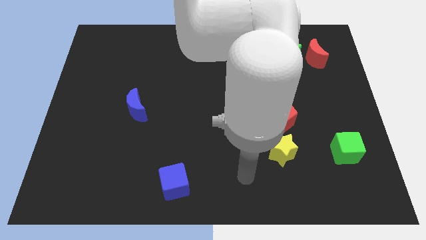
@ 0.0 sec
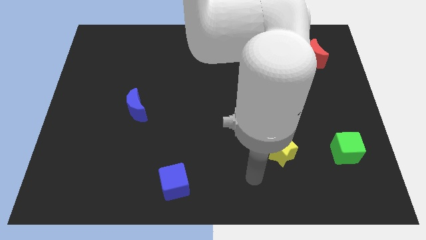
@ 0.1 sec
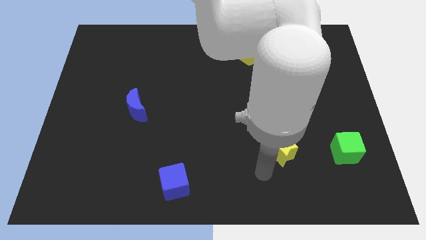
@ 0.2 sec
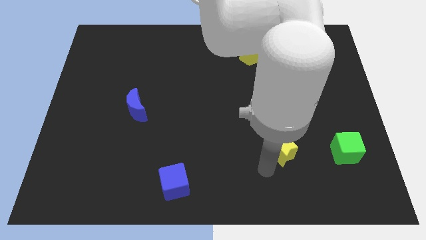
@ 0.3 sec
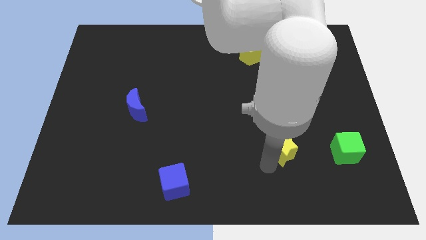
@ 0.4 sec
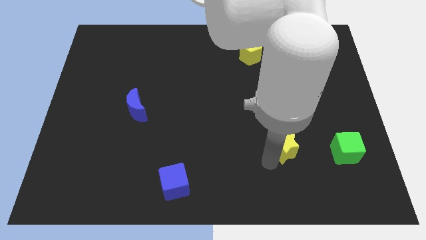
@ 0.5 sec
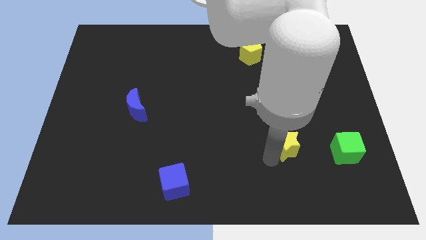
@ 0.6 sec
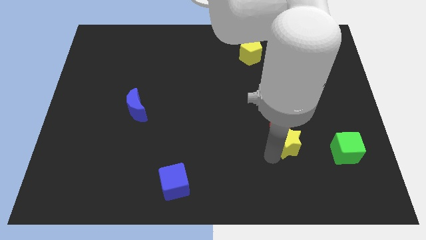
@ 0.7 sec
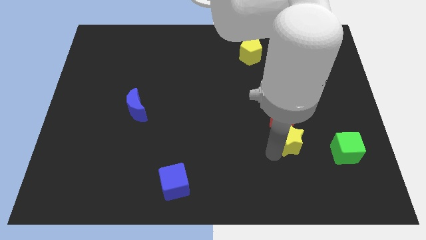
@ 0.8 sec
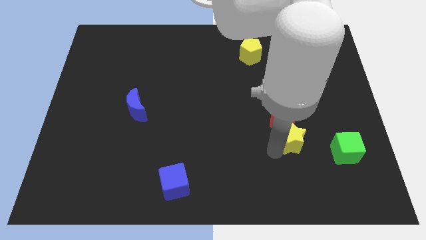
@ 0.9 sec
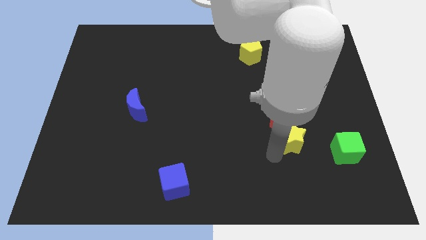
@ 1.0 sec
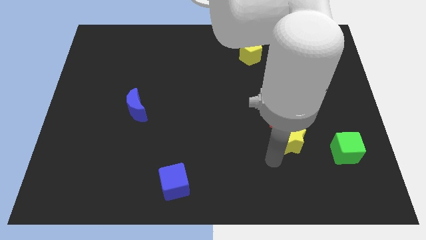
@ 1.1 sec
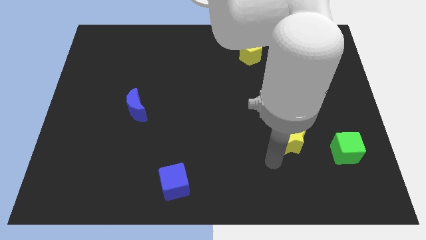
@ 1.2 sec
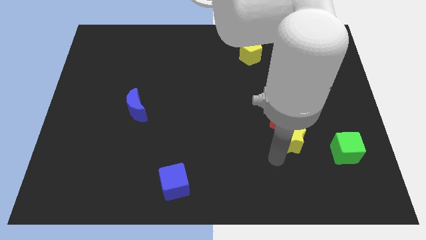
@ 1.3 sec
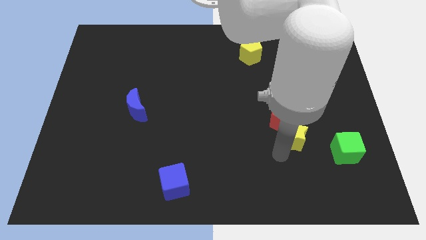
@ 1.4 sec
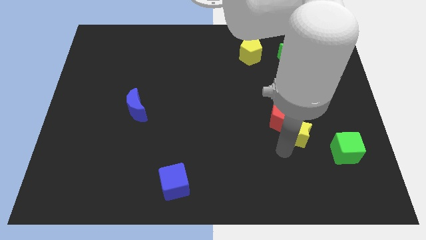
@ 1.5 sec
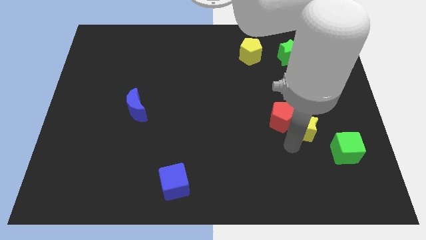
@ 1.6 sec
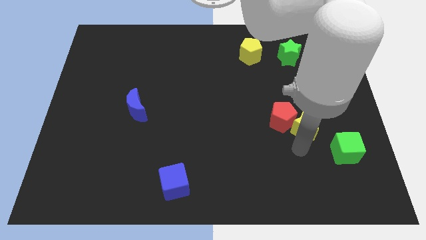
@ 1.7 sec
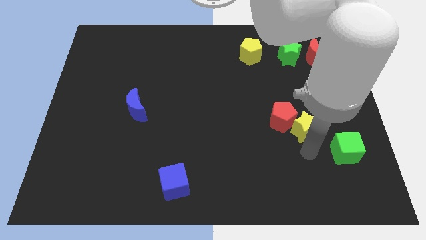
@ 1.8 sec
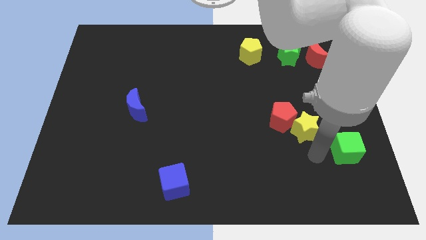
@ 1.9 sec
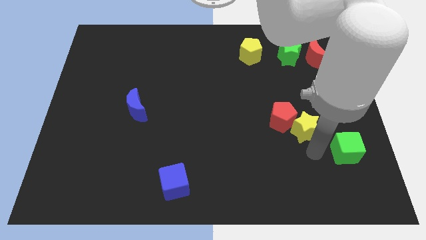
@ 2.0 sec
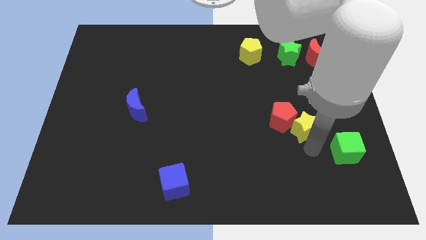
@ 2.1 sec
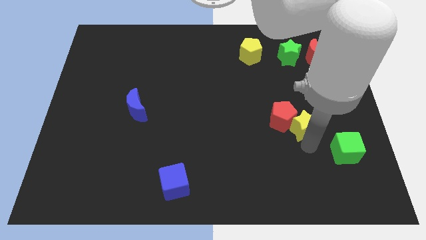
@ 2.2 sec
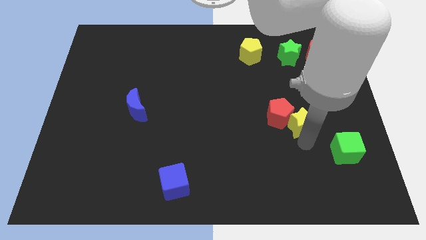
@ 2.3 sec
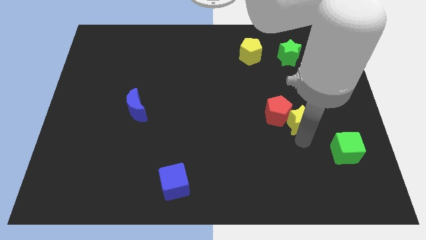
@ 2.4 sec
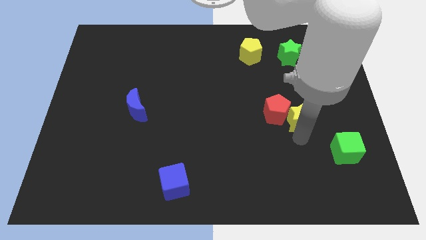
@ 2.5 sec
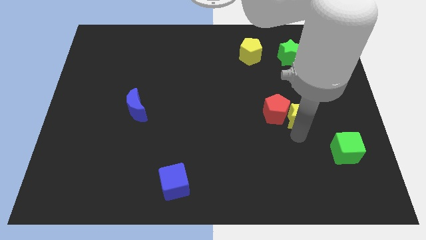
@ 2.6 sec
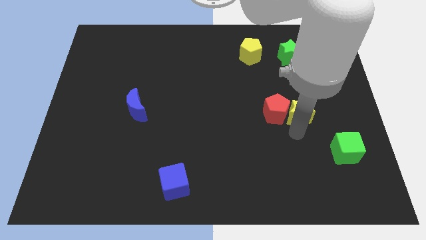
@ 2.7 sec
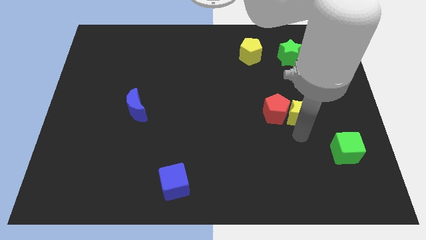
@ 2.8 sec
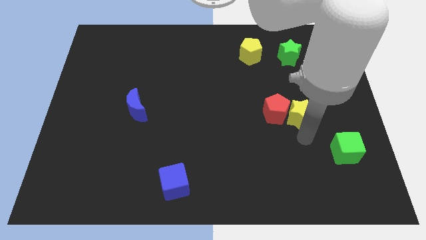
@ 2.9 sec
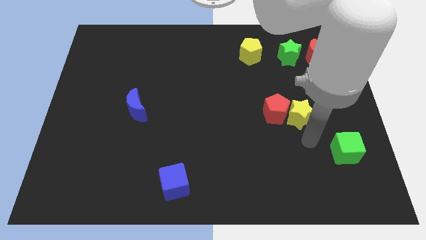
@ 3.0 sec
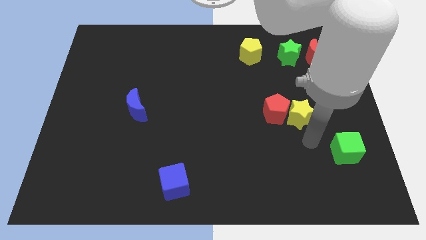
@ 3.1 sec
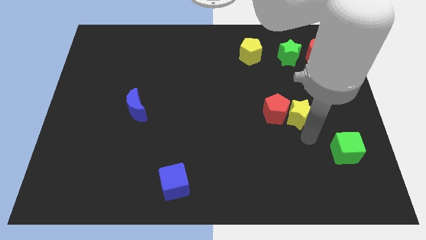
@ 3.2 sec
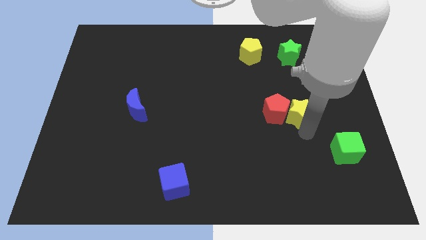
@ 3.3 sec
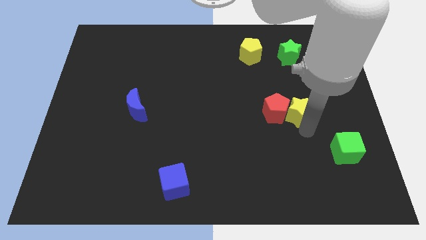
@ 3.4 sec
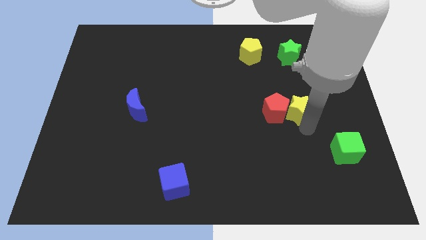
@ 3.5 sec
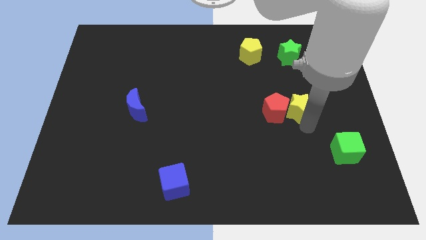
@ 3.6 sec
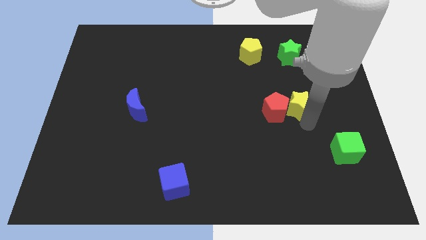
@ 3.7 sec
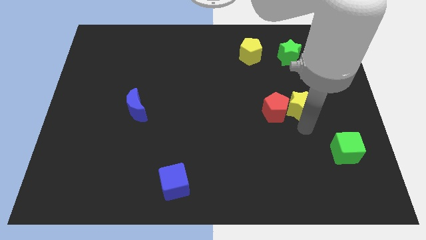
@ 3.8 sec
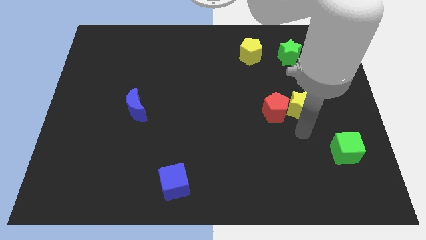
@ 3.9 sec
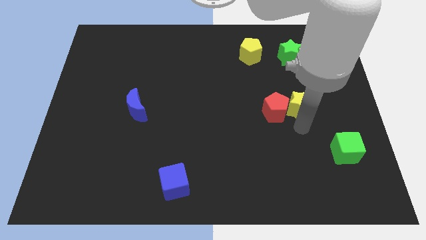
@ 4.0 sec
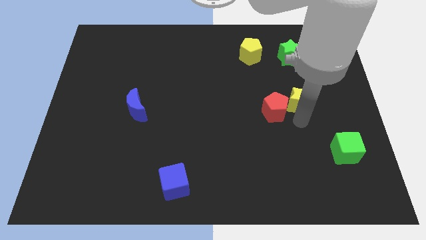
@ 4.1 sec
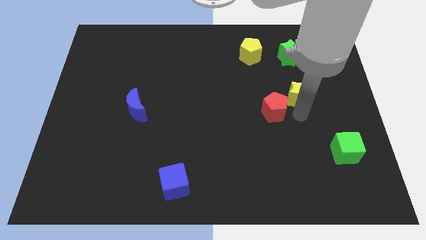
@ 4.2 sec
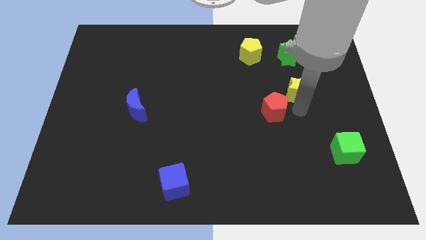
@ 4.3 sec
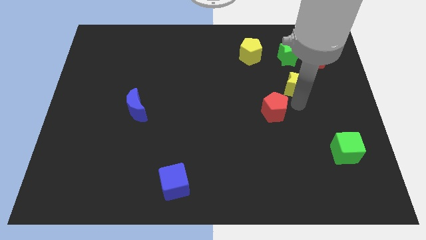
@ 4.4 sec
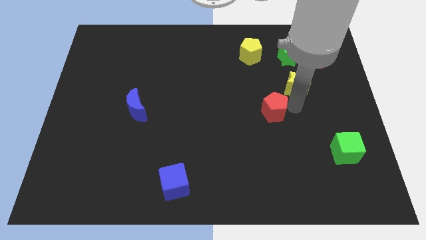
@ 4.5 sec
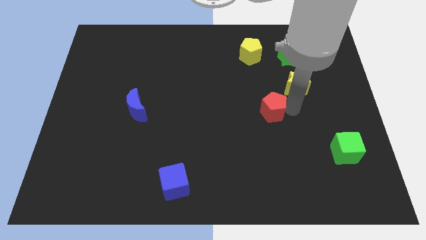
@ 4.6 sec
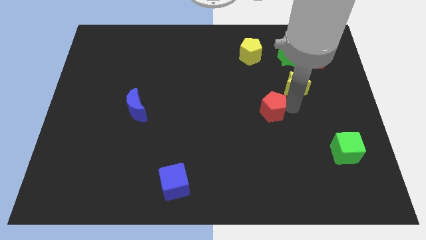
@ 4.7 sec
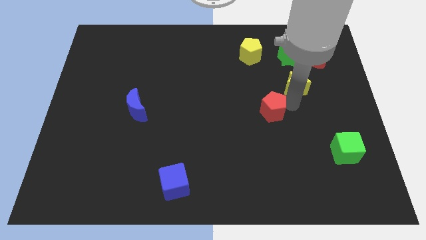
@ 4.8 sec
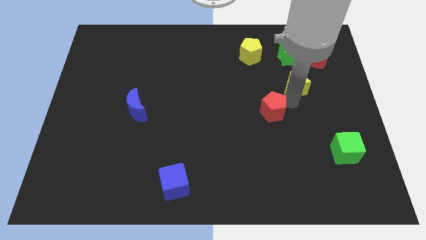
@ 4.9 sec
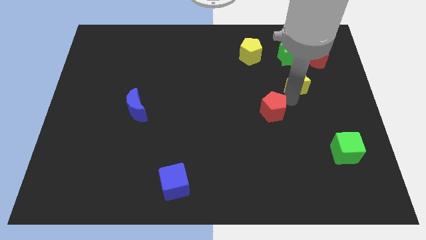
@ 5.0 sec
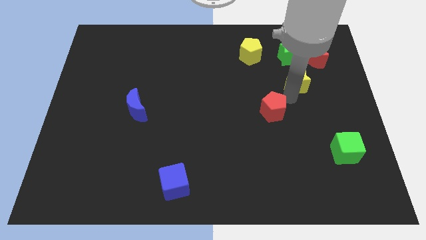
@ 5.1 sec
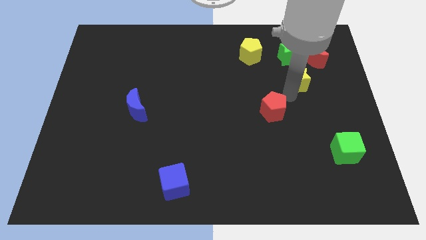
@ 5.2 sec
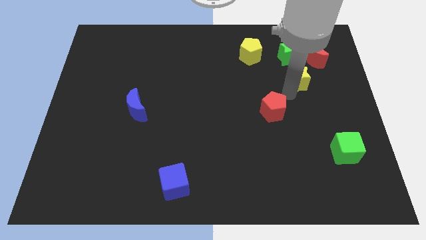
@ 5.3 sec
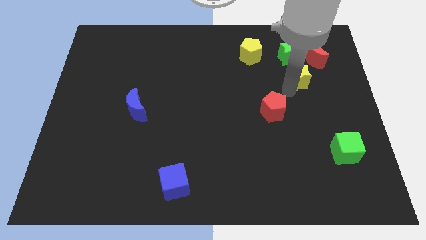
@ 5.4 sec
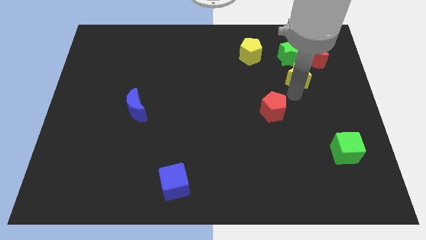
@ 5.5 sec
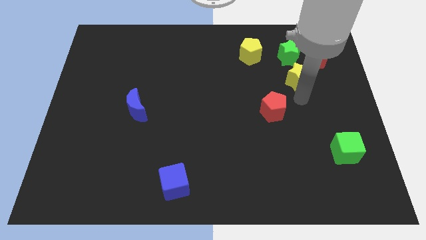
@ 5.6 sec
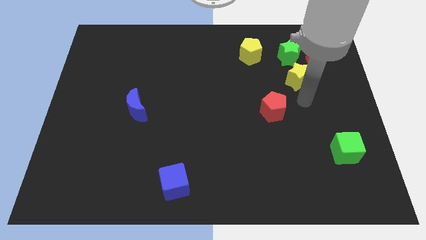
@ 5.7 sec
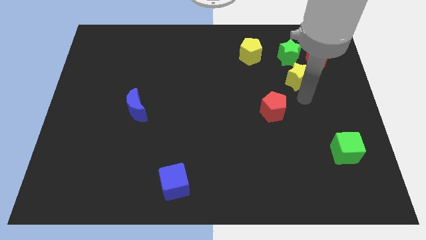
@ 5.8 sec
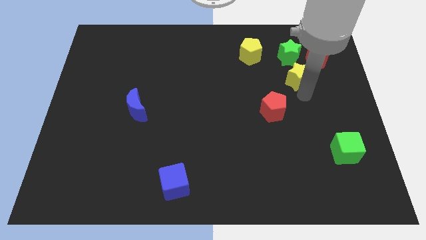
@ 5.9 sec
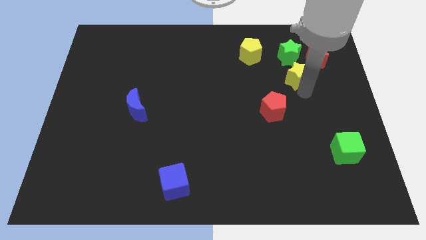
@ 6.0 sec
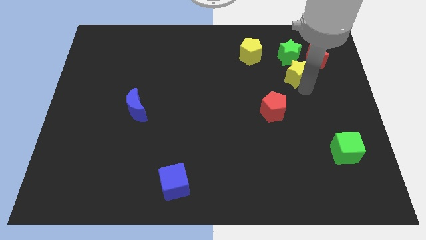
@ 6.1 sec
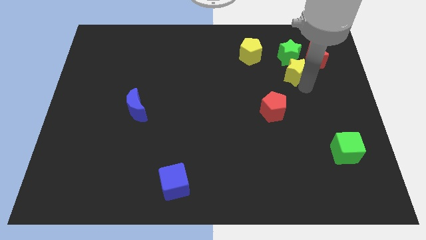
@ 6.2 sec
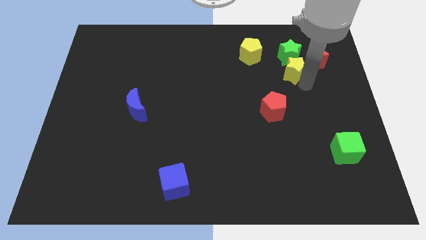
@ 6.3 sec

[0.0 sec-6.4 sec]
slide the yellow star to the green star

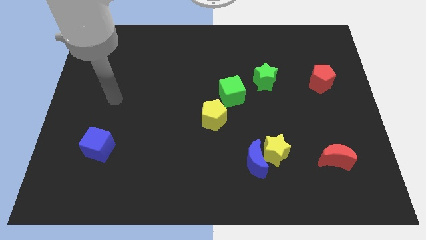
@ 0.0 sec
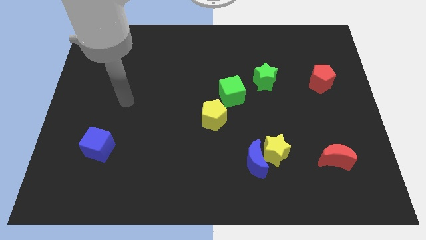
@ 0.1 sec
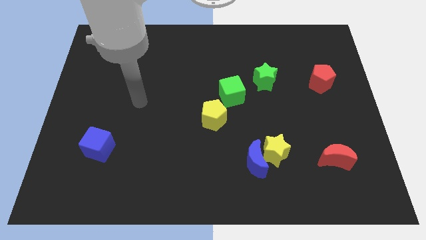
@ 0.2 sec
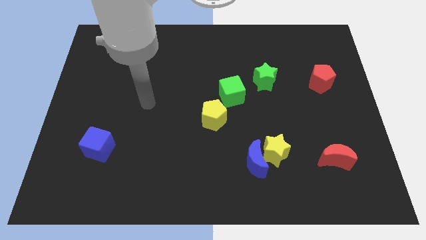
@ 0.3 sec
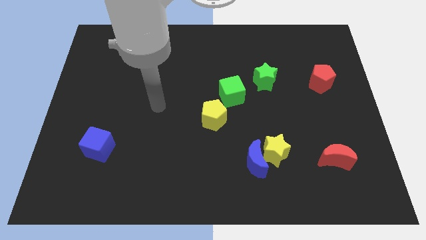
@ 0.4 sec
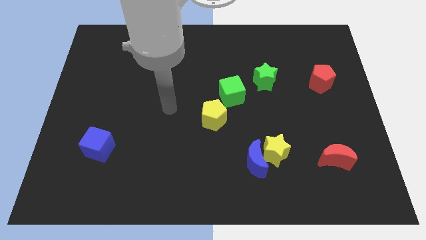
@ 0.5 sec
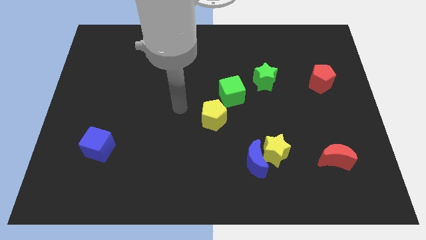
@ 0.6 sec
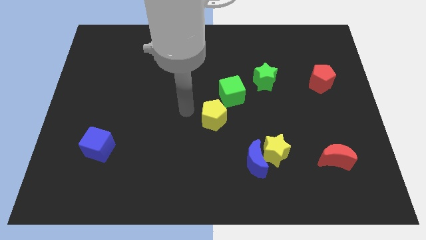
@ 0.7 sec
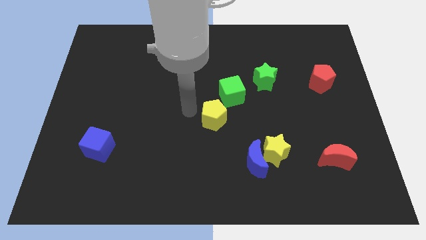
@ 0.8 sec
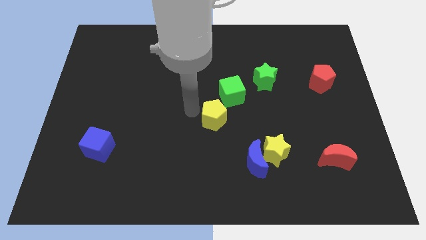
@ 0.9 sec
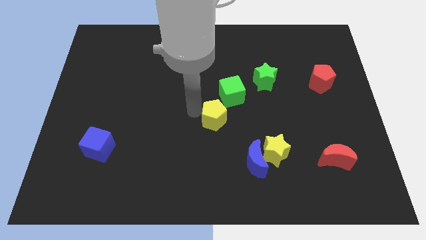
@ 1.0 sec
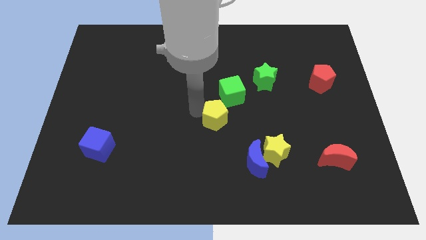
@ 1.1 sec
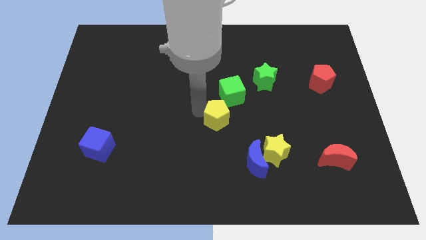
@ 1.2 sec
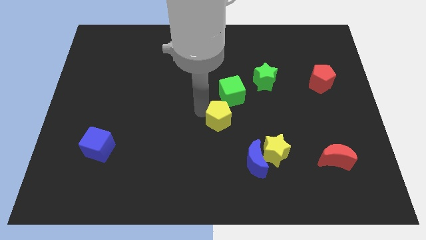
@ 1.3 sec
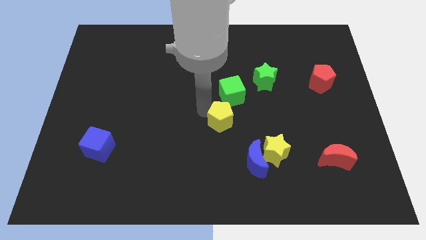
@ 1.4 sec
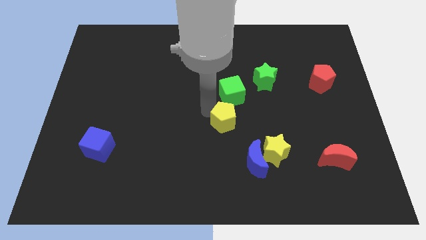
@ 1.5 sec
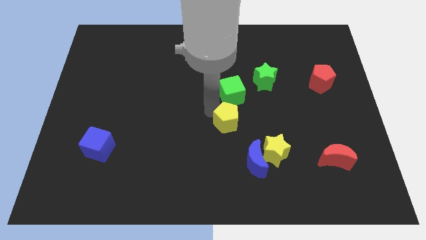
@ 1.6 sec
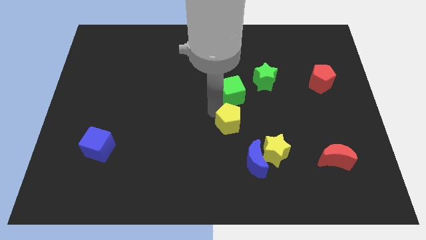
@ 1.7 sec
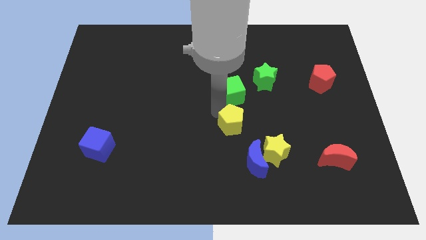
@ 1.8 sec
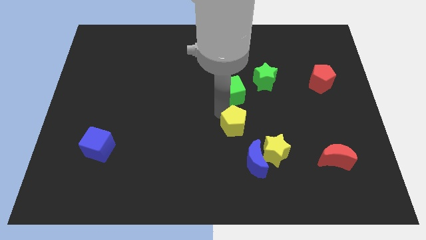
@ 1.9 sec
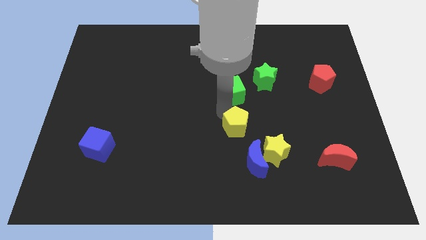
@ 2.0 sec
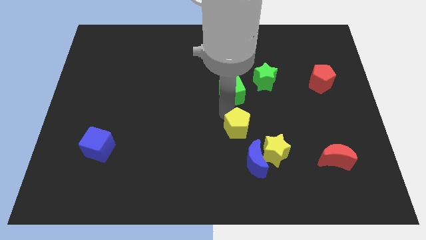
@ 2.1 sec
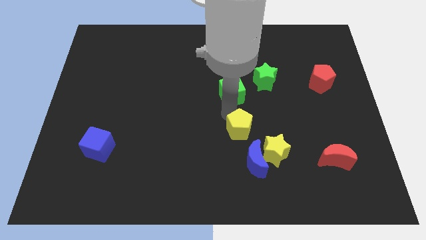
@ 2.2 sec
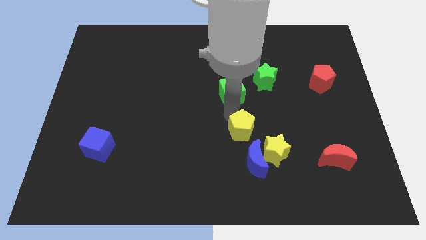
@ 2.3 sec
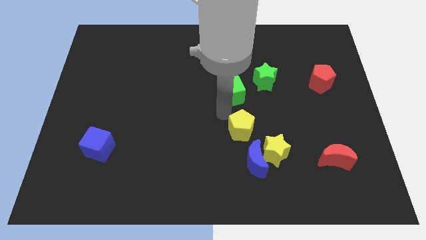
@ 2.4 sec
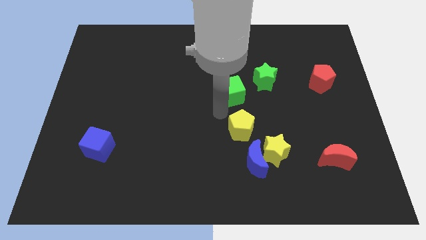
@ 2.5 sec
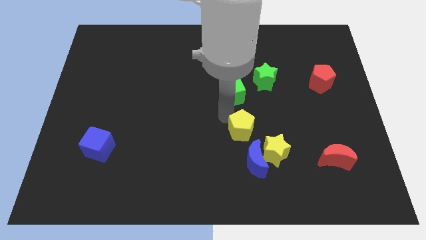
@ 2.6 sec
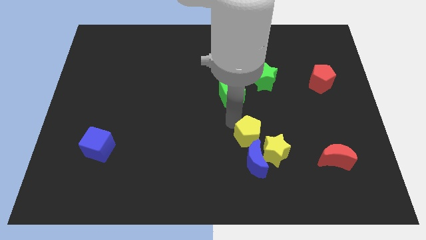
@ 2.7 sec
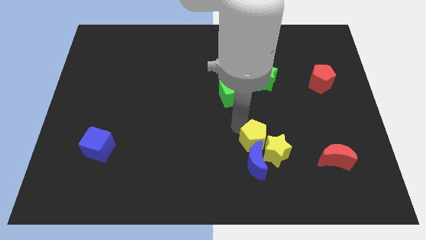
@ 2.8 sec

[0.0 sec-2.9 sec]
put the yellow pentagon to the yellow star
